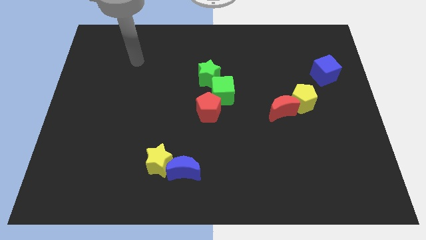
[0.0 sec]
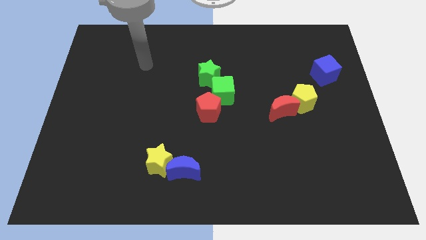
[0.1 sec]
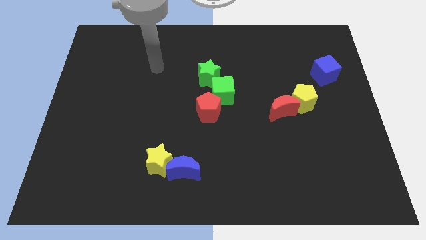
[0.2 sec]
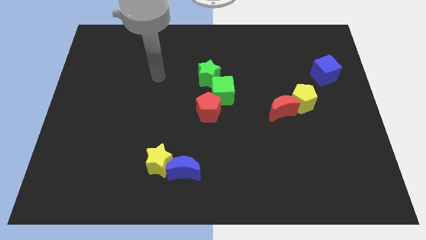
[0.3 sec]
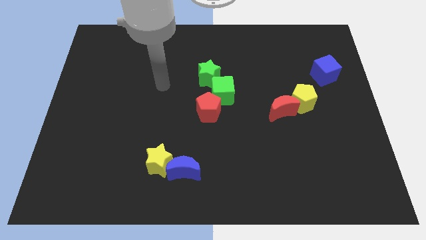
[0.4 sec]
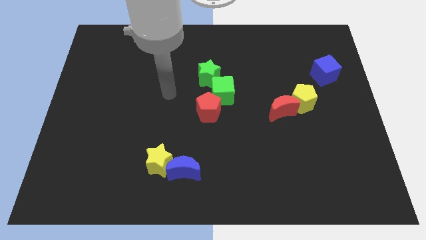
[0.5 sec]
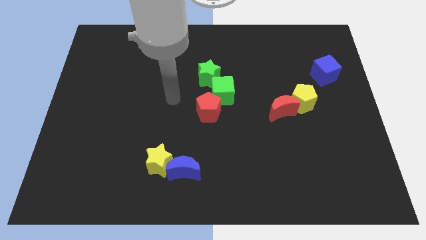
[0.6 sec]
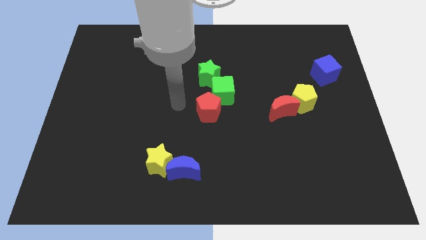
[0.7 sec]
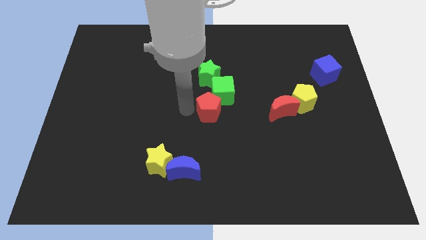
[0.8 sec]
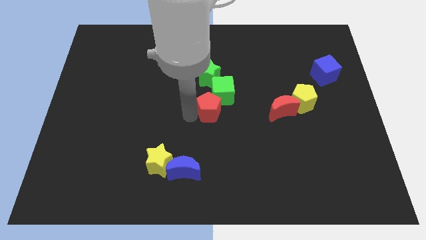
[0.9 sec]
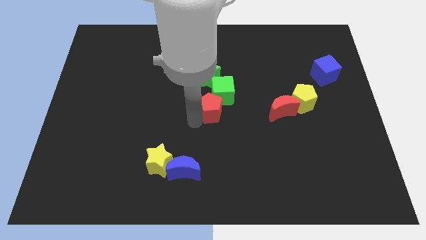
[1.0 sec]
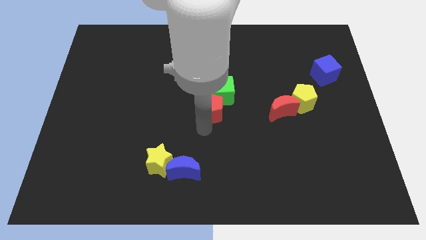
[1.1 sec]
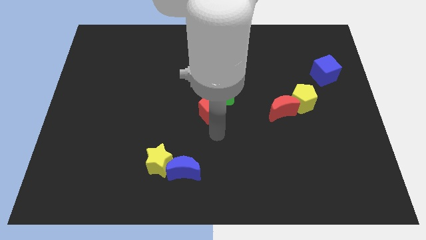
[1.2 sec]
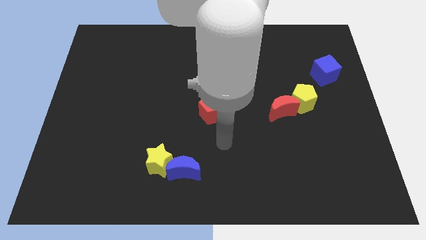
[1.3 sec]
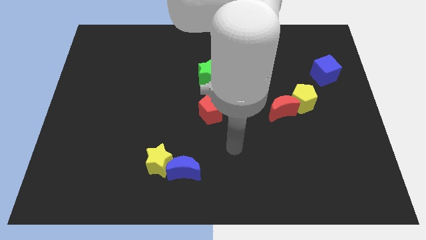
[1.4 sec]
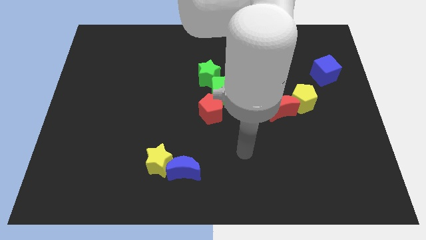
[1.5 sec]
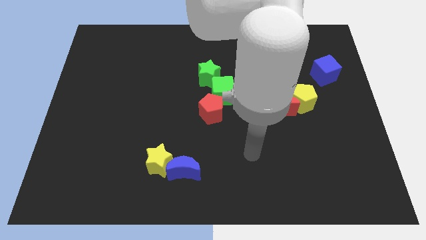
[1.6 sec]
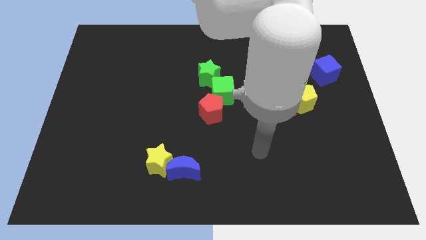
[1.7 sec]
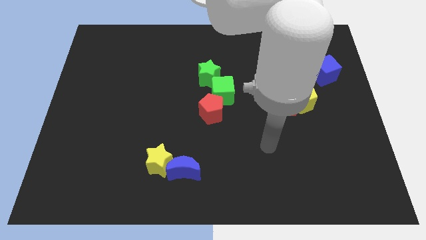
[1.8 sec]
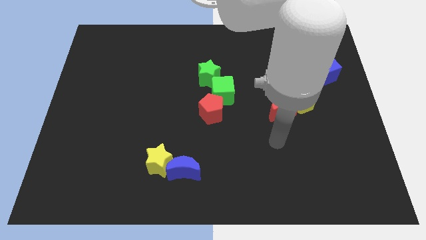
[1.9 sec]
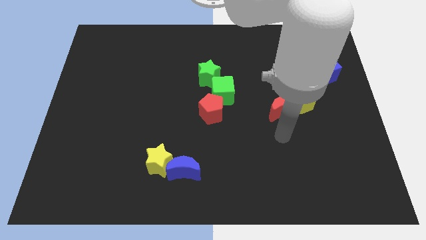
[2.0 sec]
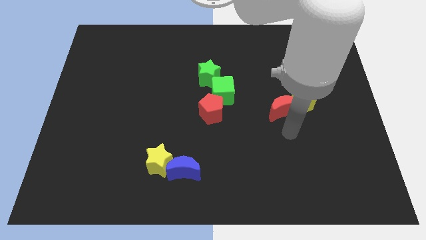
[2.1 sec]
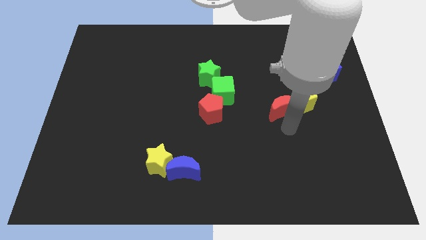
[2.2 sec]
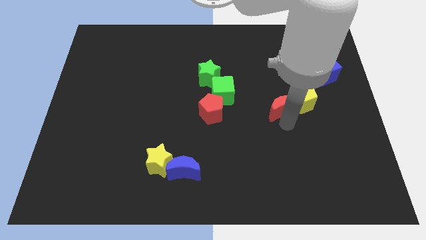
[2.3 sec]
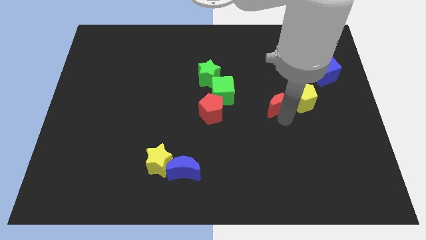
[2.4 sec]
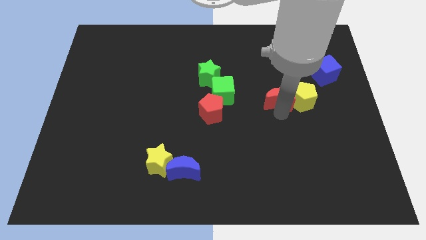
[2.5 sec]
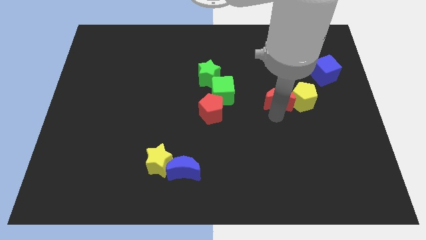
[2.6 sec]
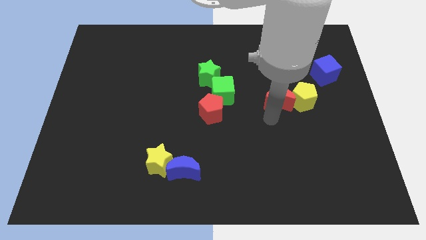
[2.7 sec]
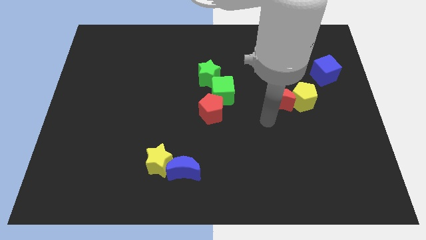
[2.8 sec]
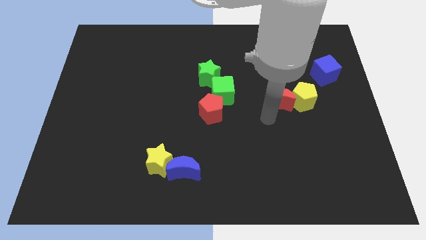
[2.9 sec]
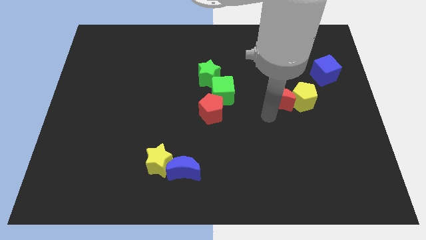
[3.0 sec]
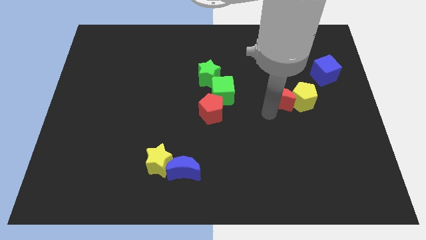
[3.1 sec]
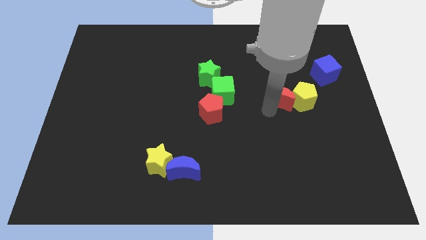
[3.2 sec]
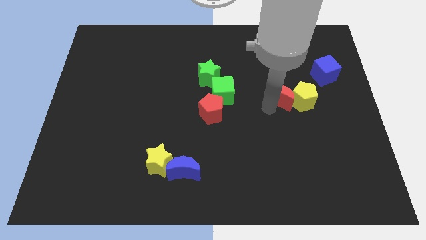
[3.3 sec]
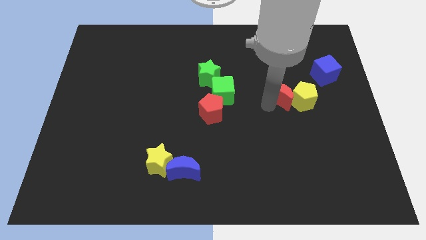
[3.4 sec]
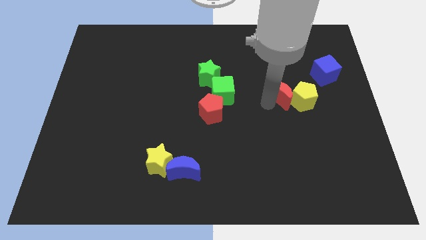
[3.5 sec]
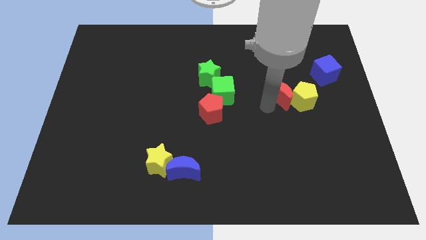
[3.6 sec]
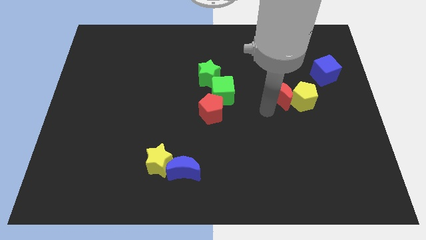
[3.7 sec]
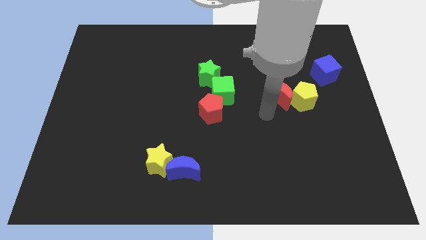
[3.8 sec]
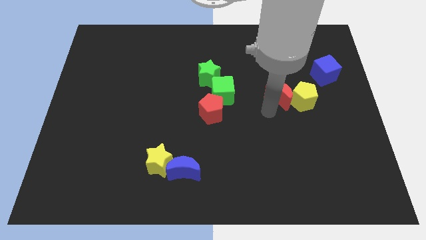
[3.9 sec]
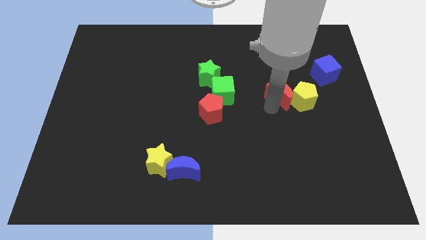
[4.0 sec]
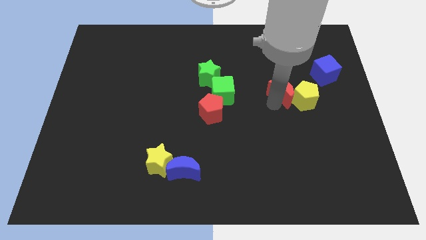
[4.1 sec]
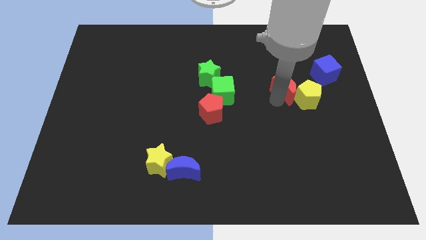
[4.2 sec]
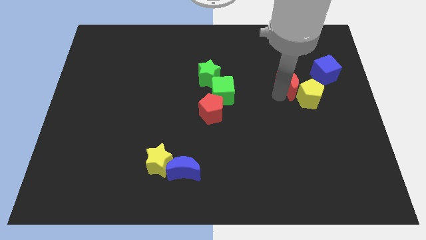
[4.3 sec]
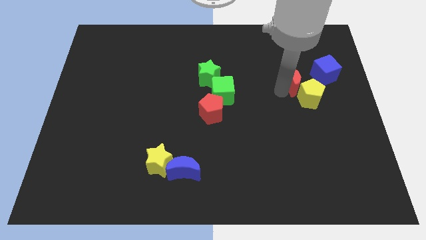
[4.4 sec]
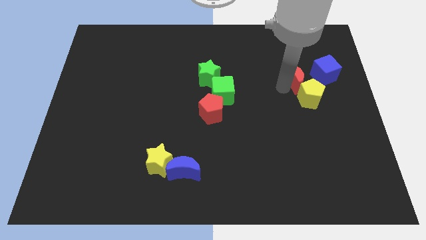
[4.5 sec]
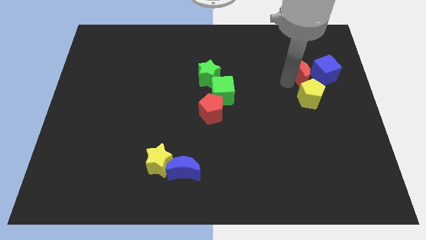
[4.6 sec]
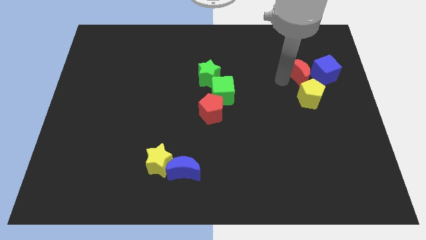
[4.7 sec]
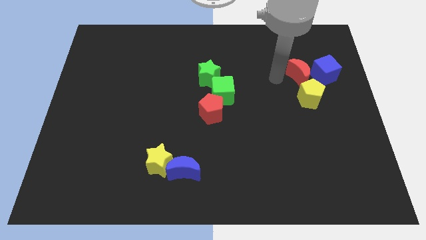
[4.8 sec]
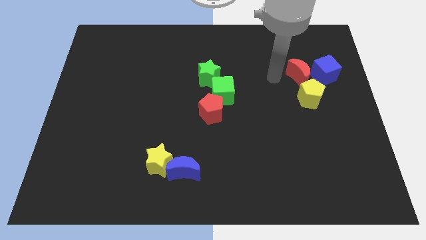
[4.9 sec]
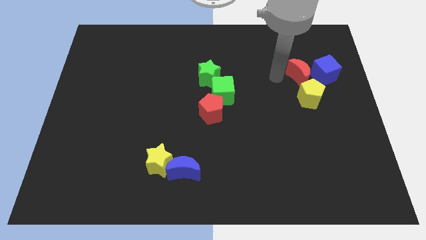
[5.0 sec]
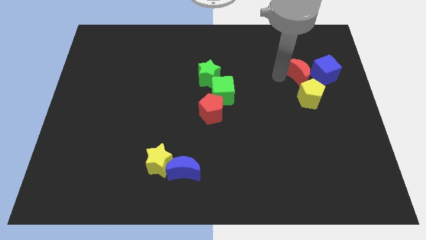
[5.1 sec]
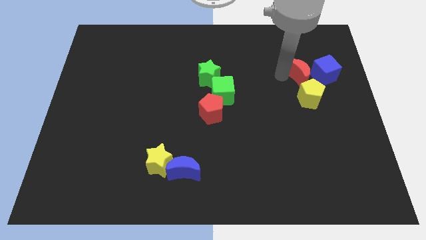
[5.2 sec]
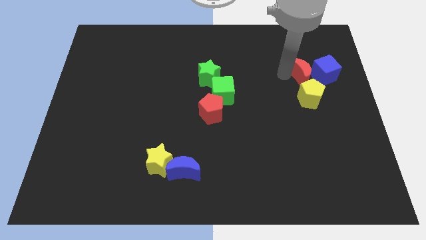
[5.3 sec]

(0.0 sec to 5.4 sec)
slide the red moon next to the blue cube

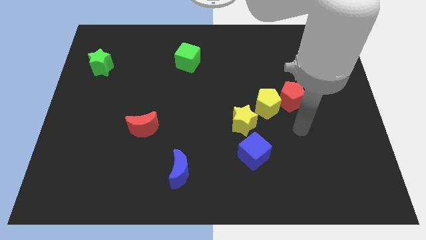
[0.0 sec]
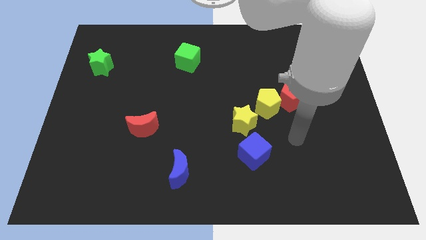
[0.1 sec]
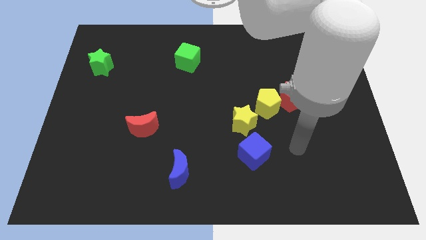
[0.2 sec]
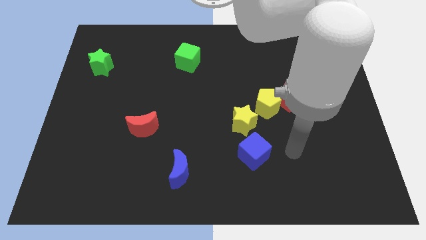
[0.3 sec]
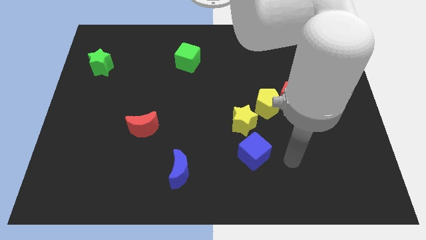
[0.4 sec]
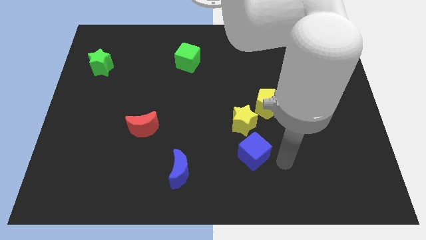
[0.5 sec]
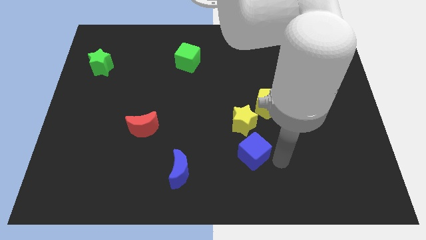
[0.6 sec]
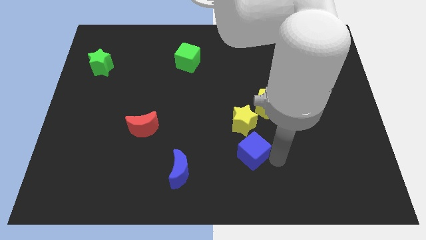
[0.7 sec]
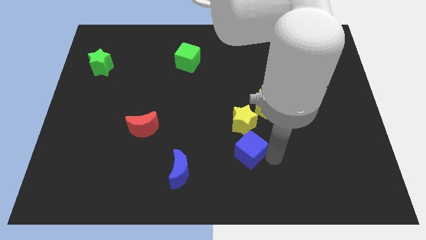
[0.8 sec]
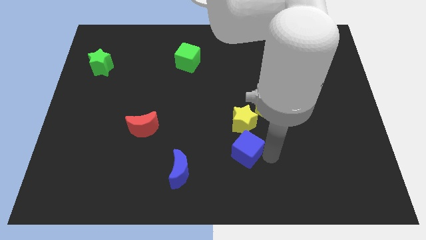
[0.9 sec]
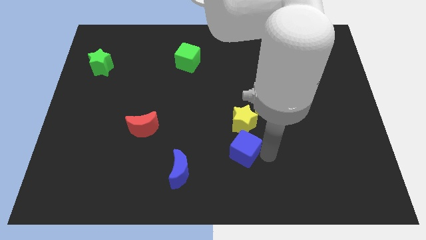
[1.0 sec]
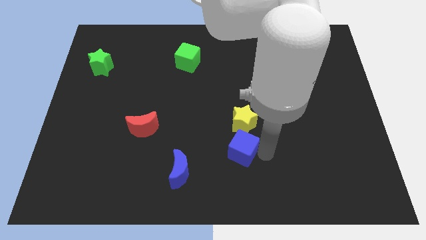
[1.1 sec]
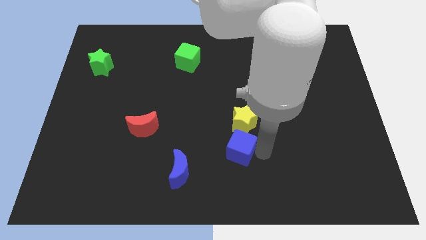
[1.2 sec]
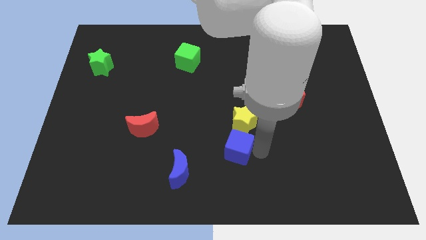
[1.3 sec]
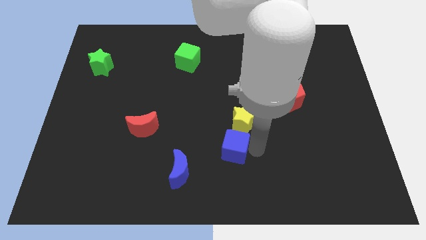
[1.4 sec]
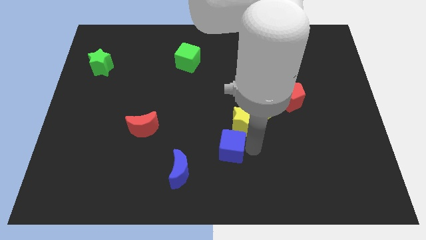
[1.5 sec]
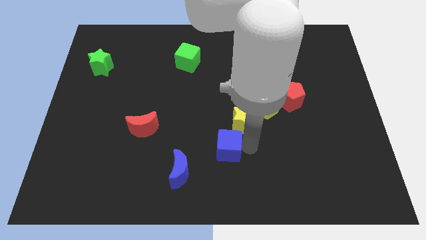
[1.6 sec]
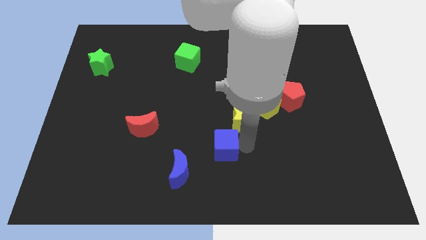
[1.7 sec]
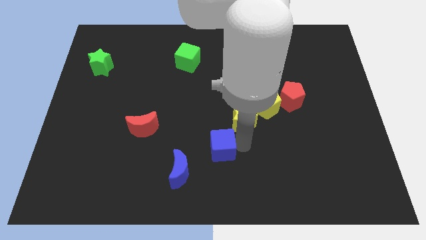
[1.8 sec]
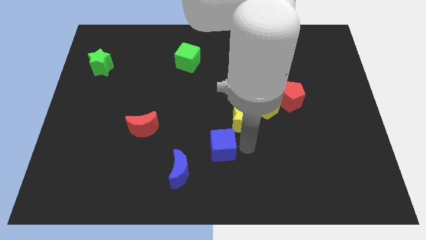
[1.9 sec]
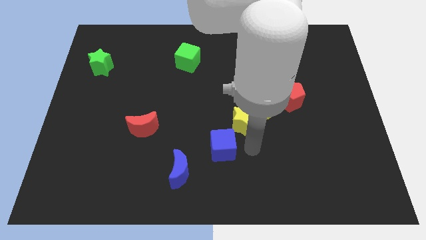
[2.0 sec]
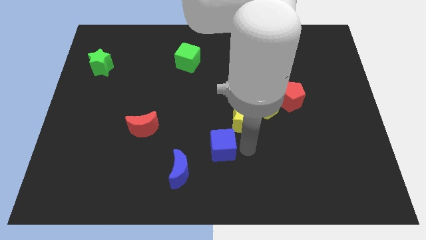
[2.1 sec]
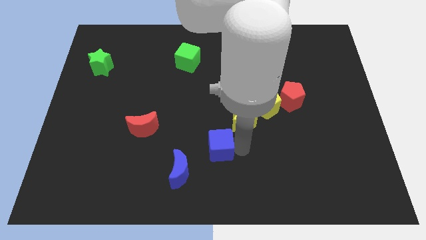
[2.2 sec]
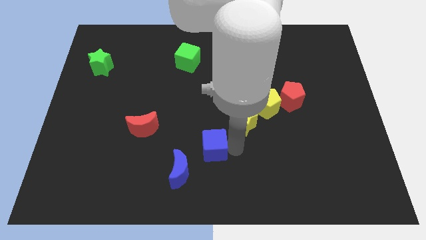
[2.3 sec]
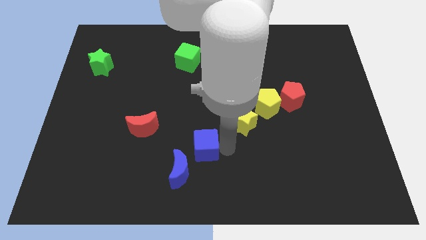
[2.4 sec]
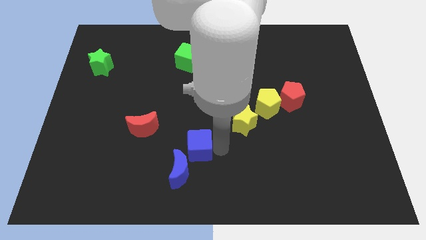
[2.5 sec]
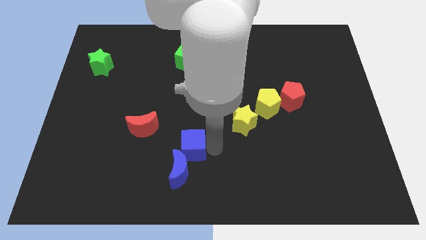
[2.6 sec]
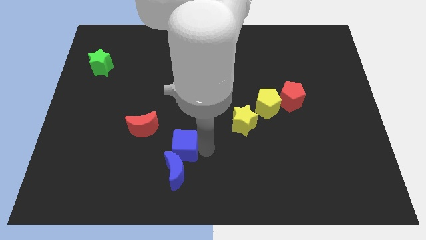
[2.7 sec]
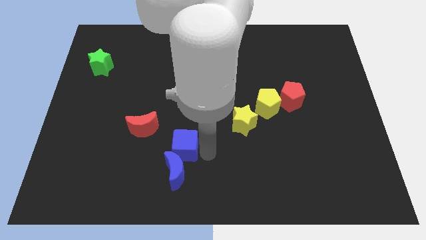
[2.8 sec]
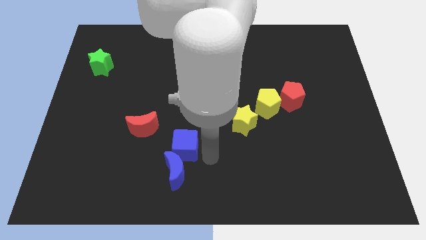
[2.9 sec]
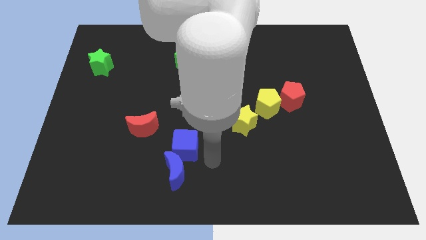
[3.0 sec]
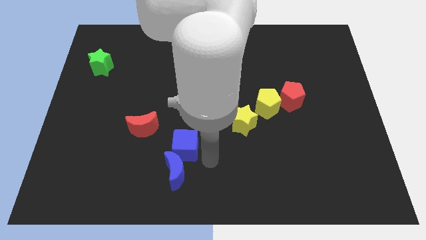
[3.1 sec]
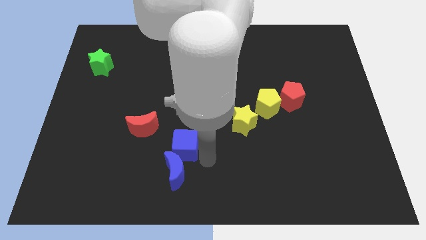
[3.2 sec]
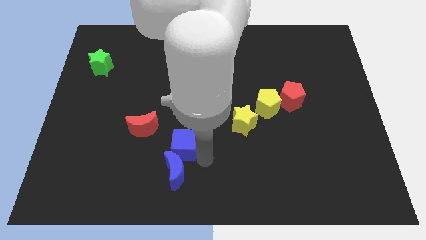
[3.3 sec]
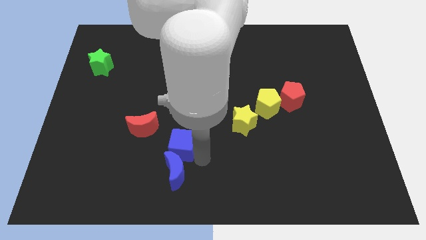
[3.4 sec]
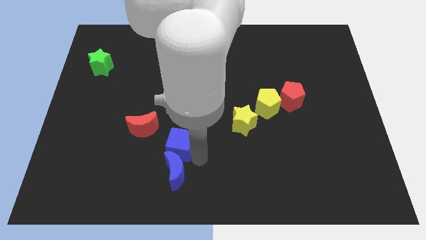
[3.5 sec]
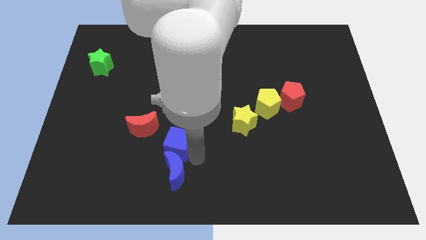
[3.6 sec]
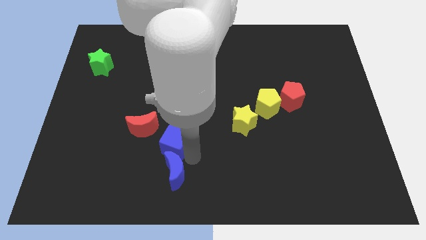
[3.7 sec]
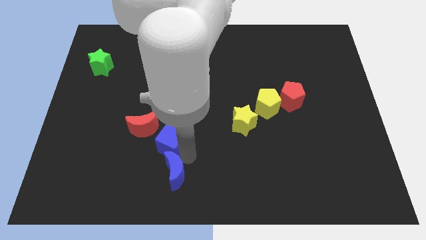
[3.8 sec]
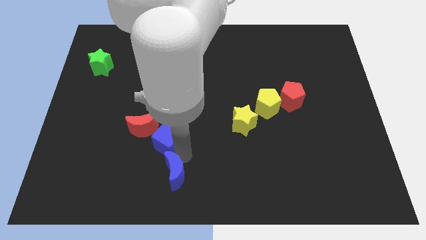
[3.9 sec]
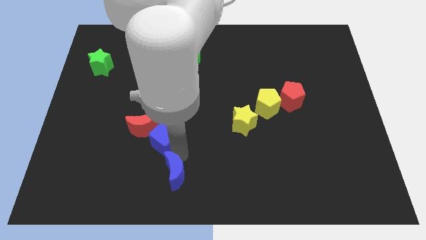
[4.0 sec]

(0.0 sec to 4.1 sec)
slide the blue cube next to the red moon
